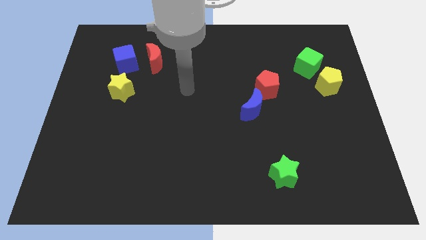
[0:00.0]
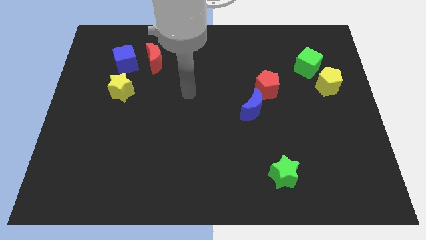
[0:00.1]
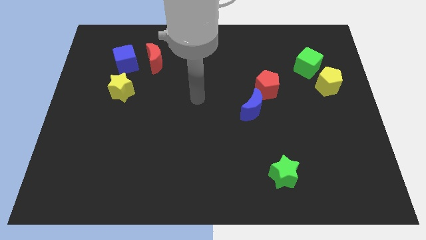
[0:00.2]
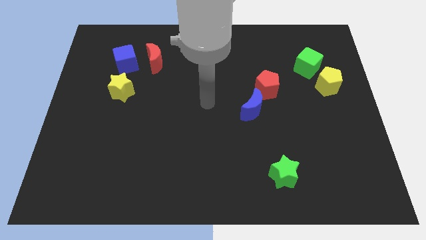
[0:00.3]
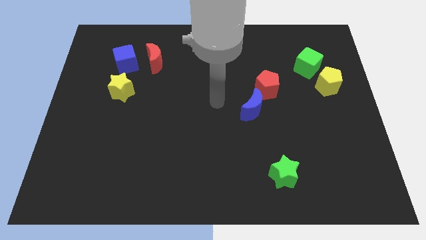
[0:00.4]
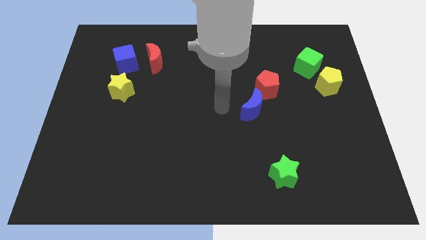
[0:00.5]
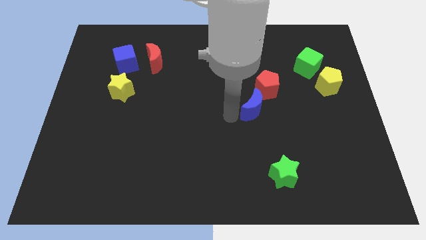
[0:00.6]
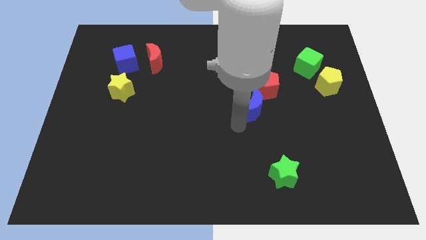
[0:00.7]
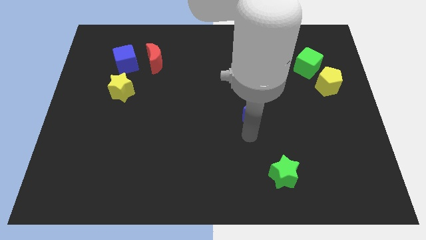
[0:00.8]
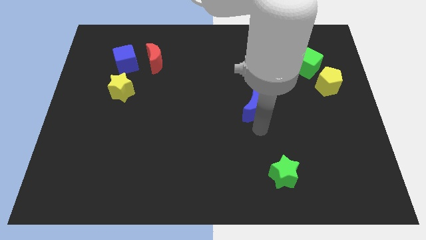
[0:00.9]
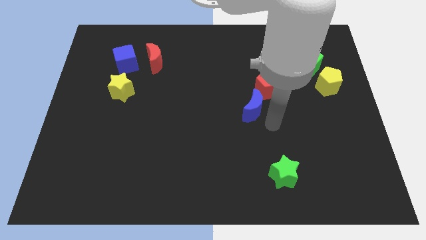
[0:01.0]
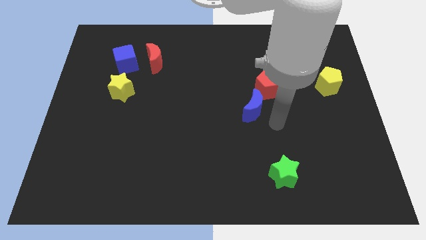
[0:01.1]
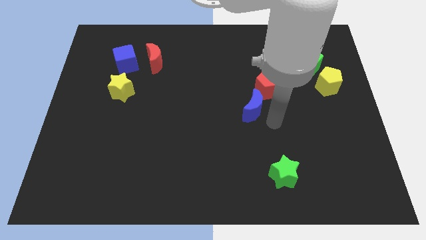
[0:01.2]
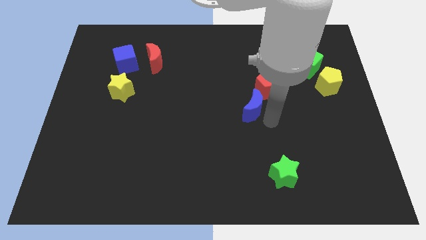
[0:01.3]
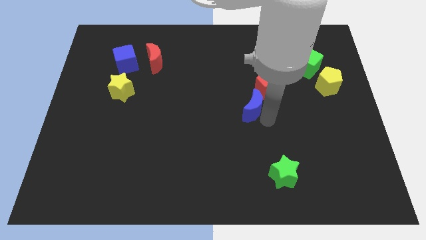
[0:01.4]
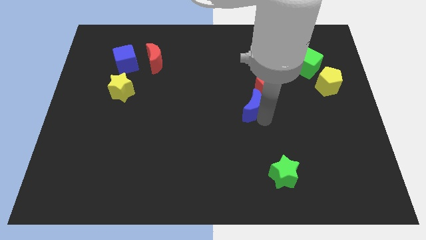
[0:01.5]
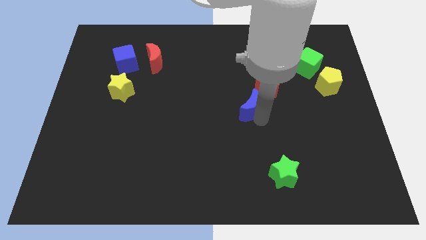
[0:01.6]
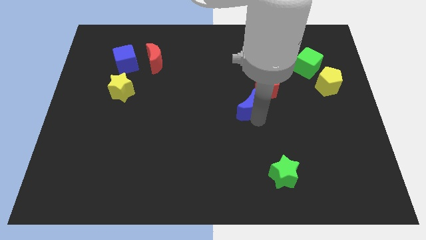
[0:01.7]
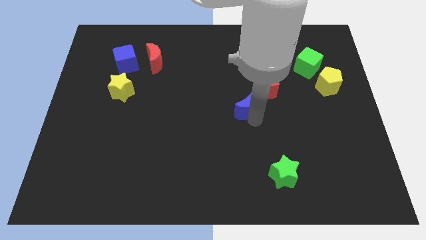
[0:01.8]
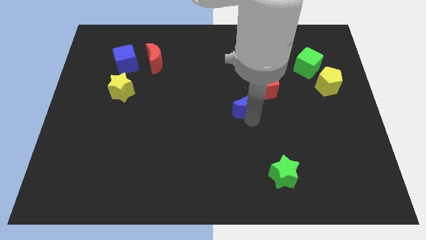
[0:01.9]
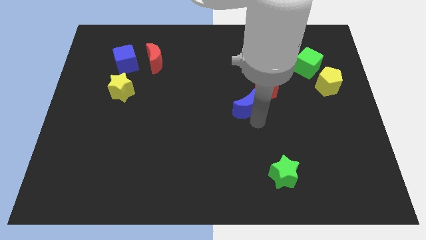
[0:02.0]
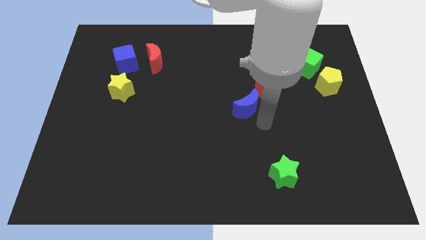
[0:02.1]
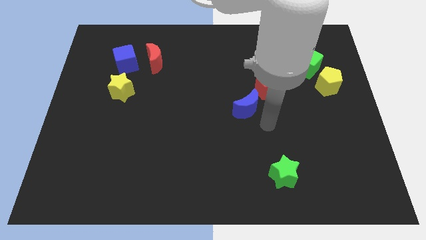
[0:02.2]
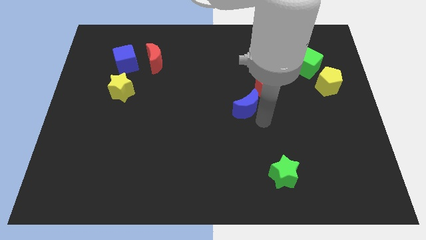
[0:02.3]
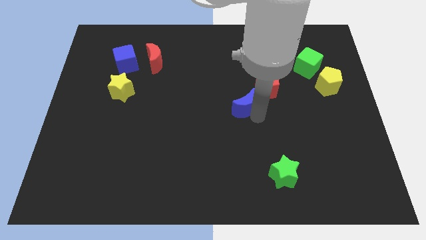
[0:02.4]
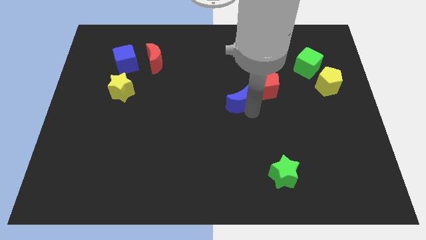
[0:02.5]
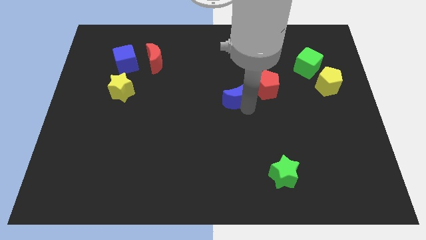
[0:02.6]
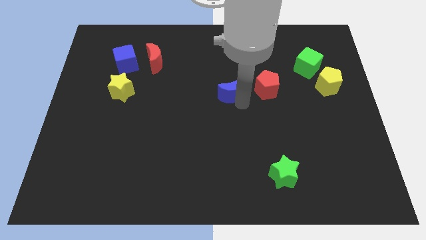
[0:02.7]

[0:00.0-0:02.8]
move the blue moon a little up and left

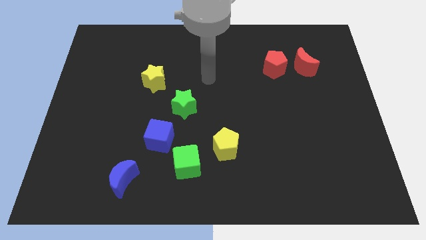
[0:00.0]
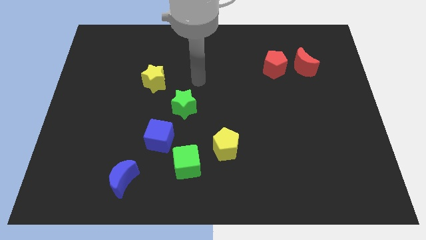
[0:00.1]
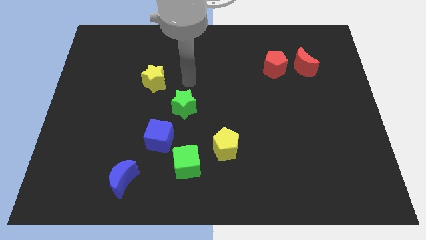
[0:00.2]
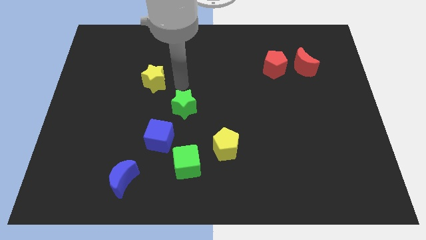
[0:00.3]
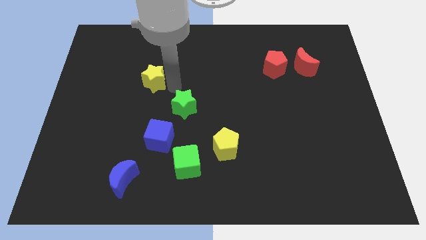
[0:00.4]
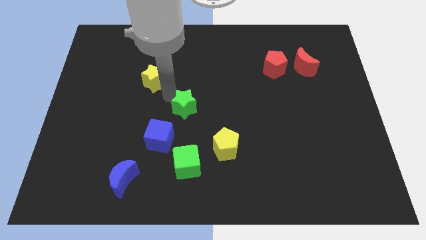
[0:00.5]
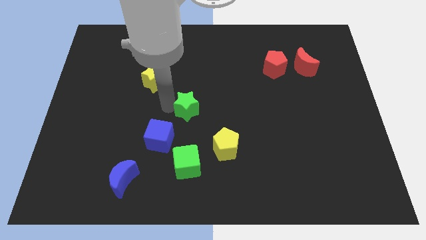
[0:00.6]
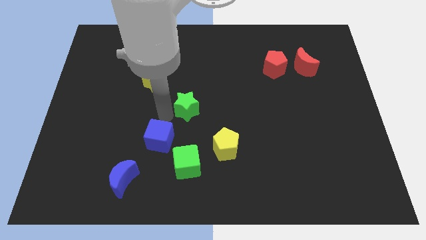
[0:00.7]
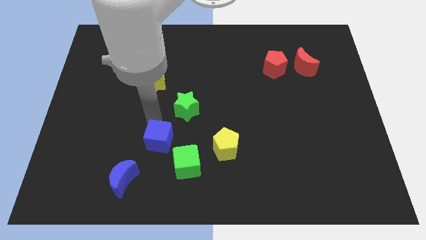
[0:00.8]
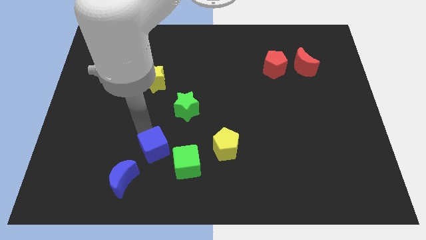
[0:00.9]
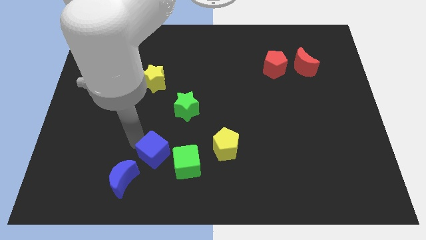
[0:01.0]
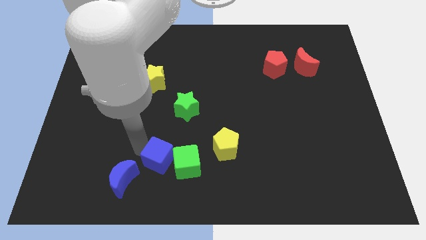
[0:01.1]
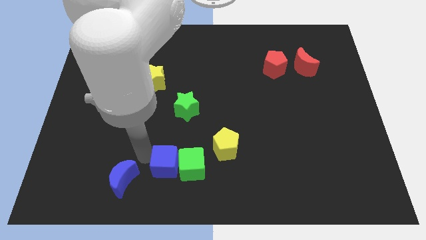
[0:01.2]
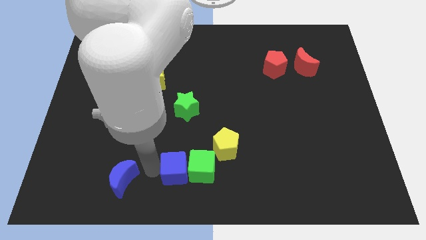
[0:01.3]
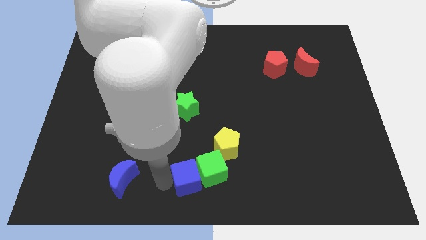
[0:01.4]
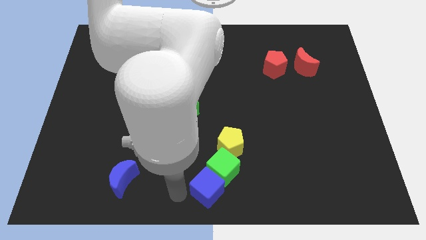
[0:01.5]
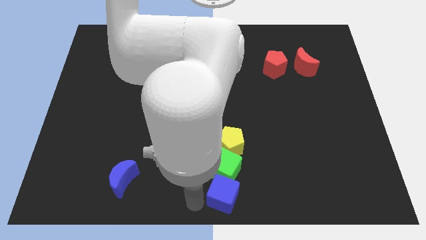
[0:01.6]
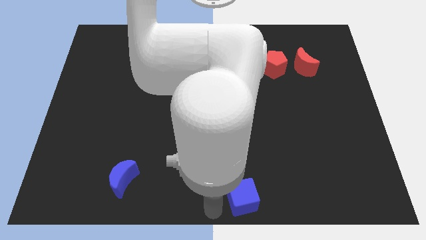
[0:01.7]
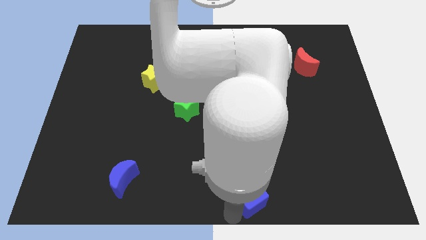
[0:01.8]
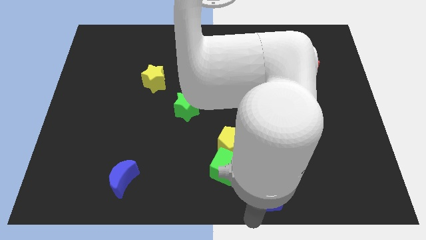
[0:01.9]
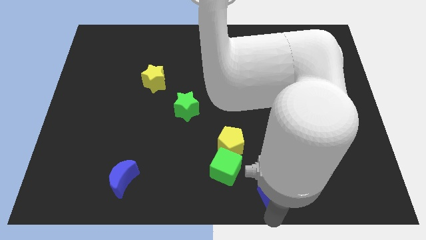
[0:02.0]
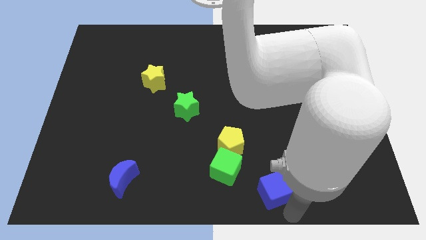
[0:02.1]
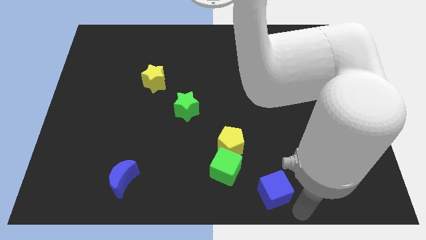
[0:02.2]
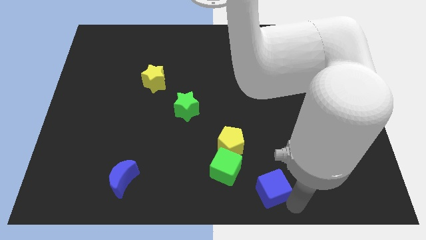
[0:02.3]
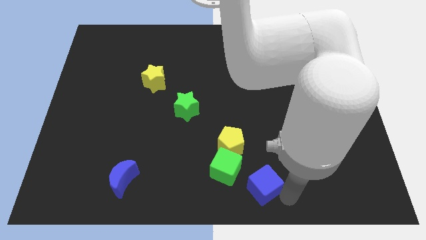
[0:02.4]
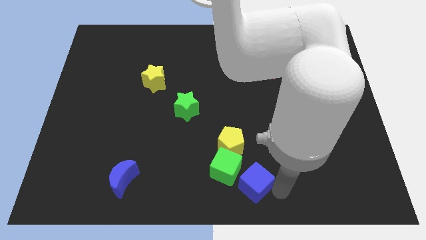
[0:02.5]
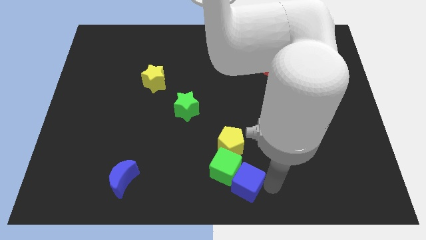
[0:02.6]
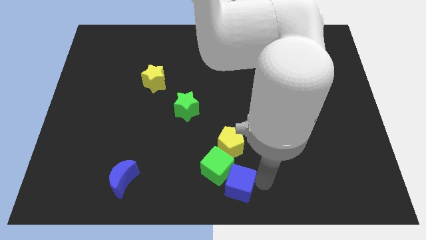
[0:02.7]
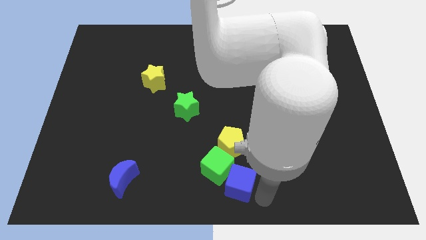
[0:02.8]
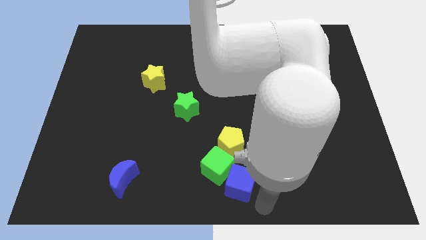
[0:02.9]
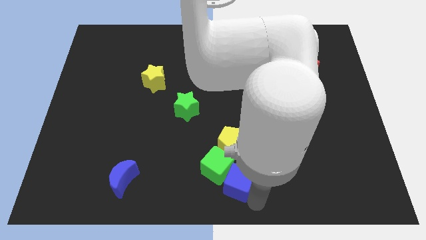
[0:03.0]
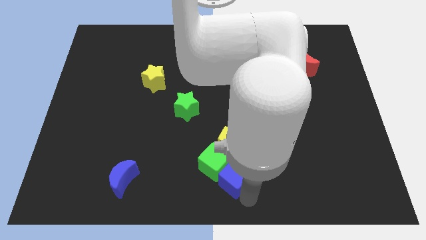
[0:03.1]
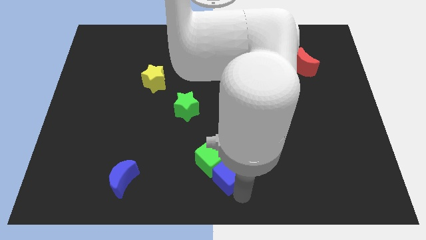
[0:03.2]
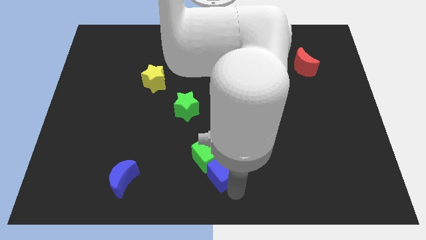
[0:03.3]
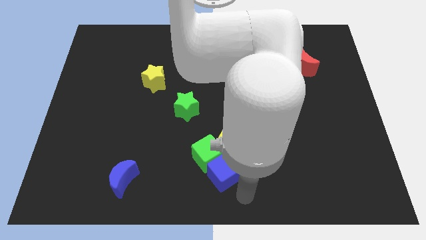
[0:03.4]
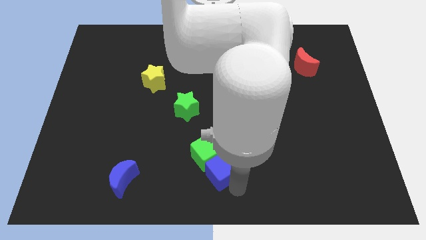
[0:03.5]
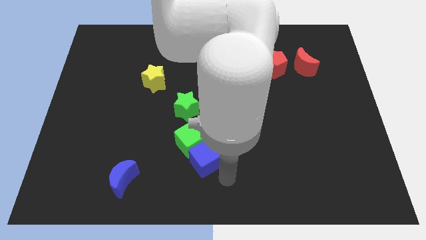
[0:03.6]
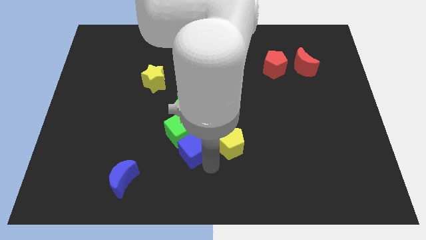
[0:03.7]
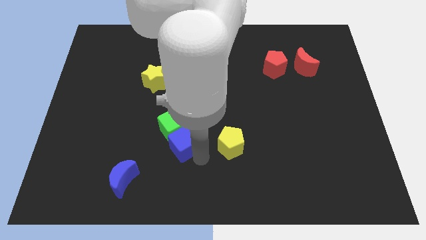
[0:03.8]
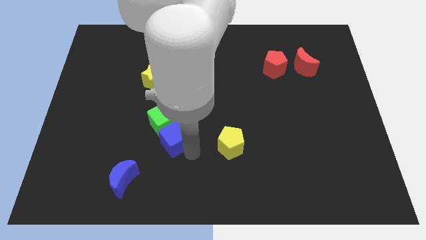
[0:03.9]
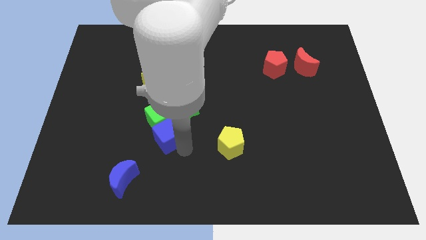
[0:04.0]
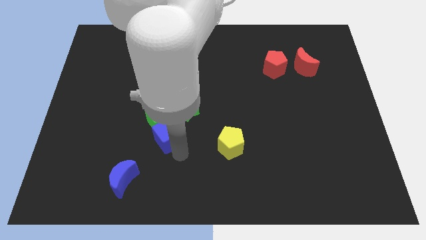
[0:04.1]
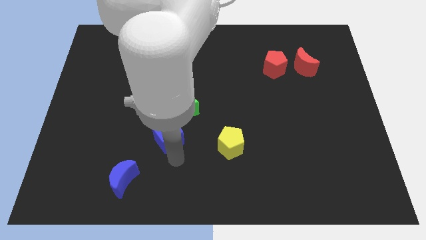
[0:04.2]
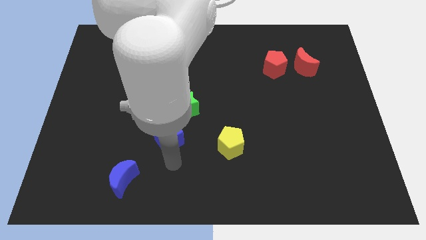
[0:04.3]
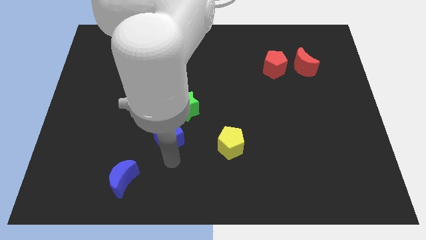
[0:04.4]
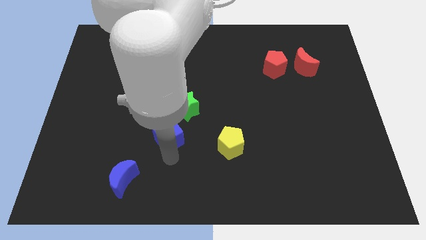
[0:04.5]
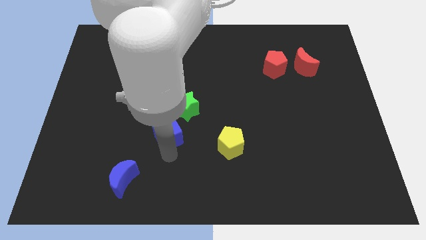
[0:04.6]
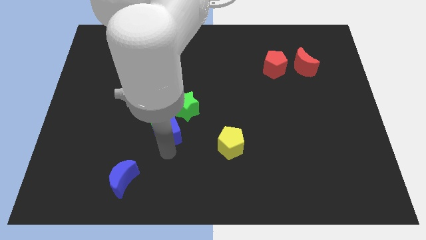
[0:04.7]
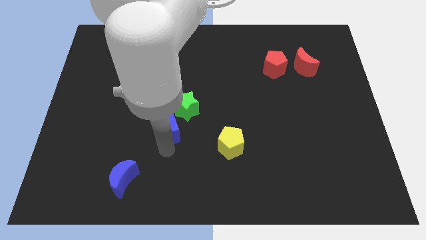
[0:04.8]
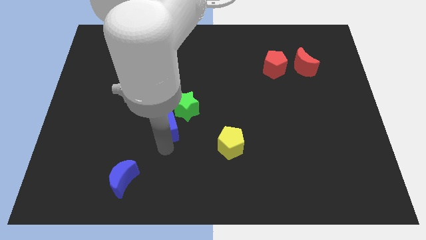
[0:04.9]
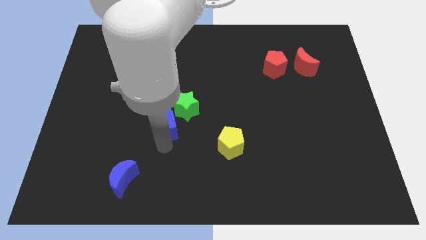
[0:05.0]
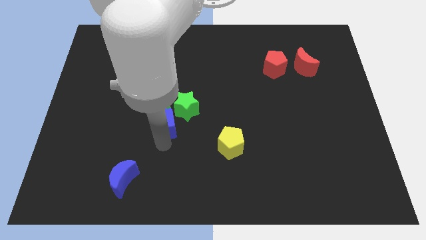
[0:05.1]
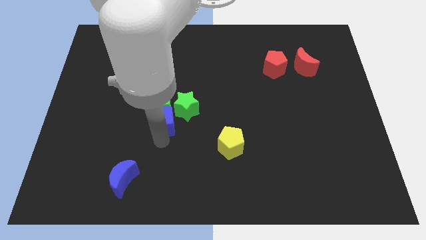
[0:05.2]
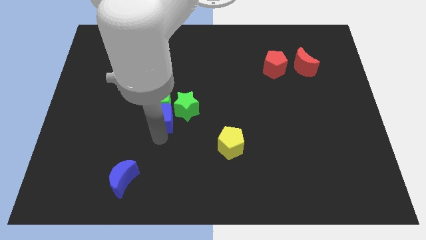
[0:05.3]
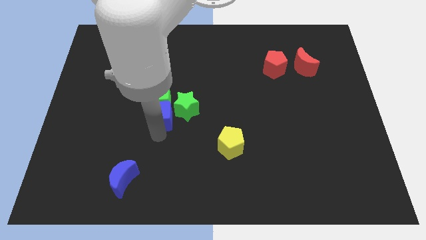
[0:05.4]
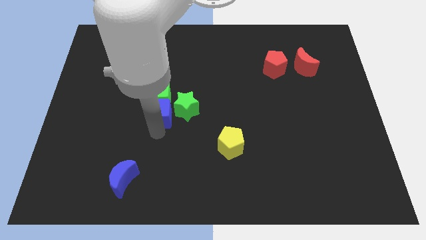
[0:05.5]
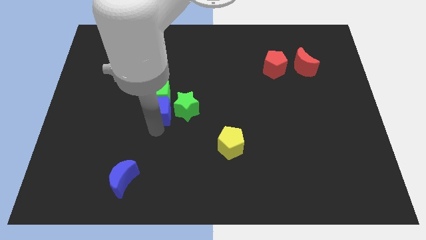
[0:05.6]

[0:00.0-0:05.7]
slide the blue cube upwards a bit
